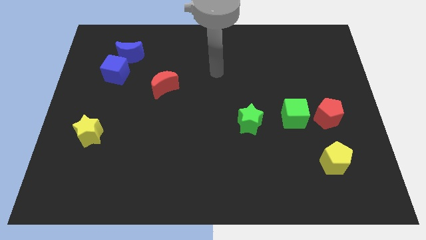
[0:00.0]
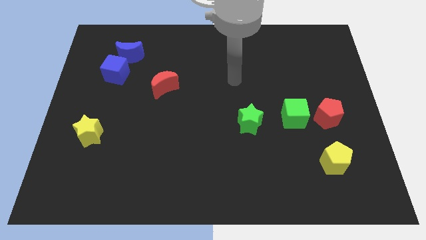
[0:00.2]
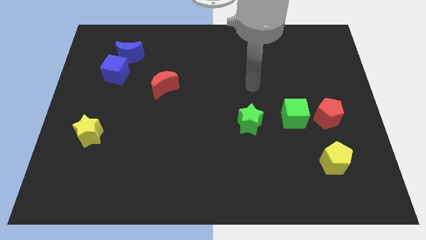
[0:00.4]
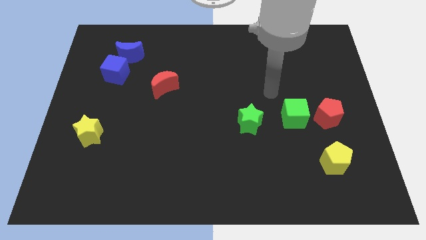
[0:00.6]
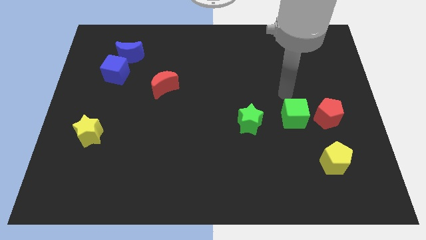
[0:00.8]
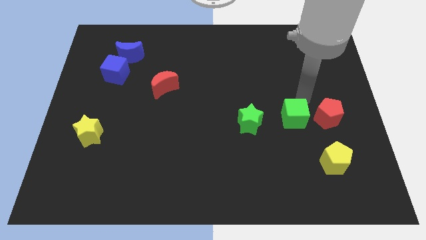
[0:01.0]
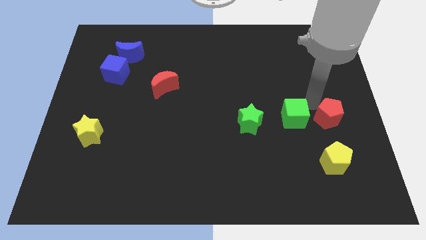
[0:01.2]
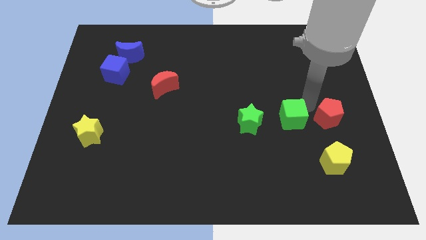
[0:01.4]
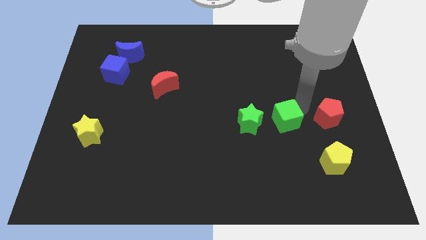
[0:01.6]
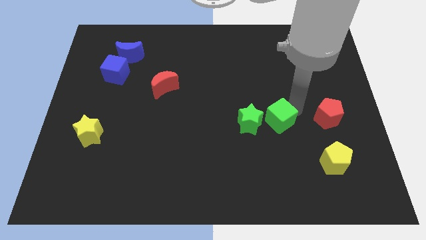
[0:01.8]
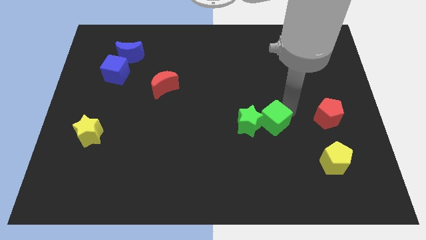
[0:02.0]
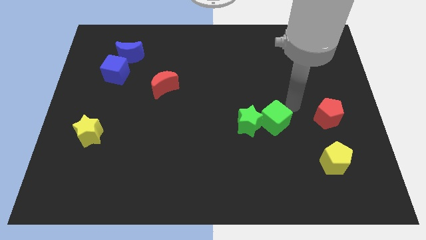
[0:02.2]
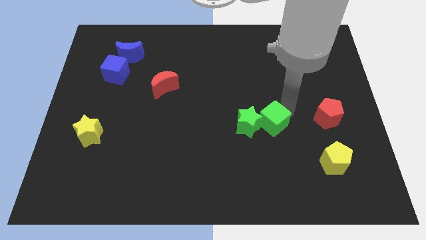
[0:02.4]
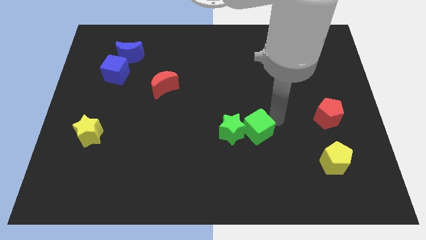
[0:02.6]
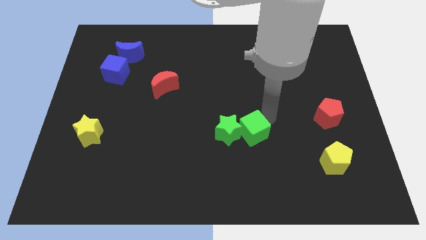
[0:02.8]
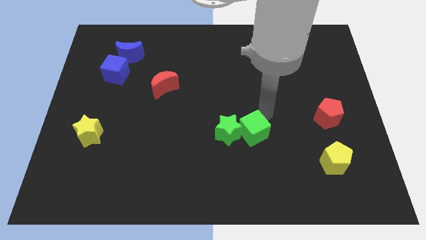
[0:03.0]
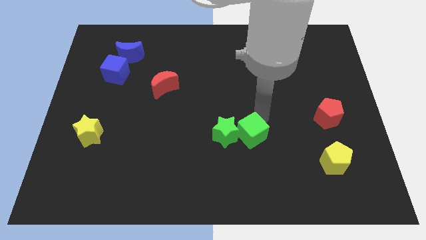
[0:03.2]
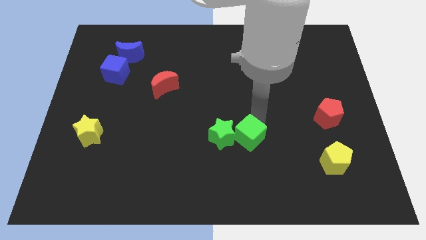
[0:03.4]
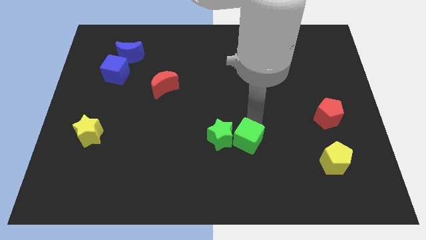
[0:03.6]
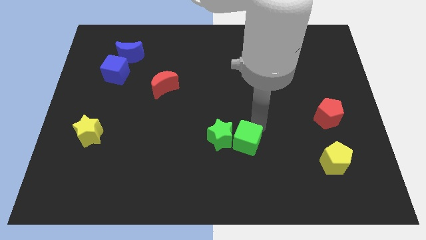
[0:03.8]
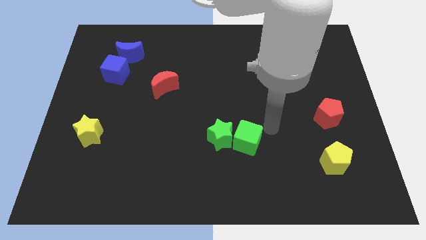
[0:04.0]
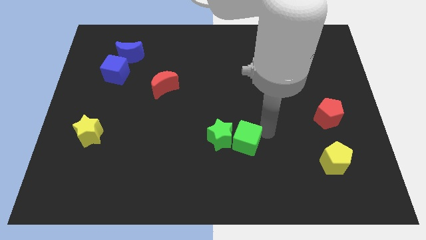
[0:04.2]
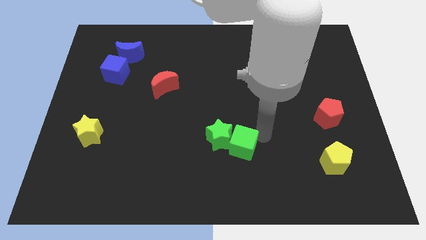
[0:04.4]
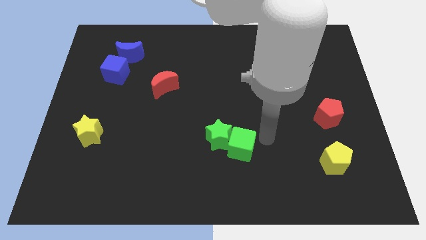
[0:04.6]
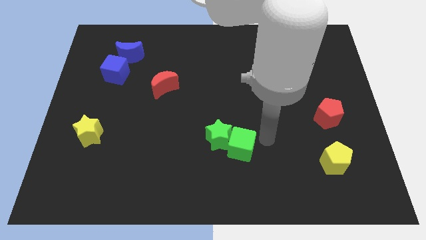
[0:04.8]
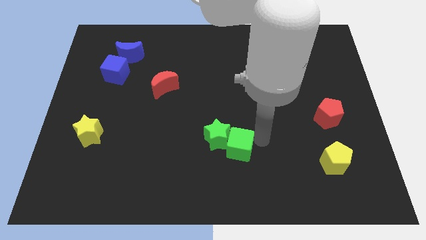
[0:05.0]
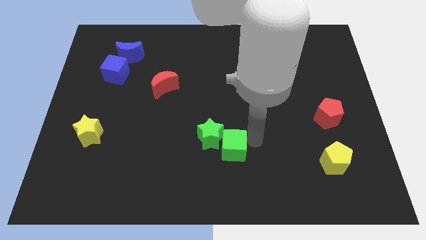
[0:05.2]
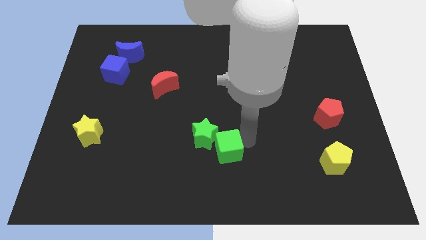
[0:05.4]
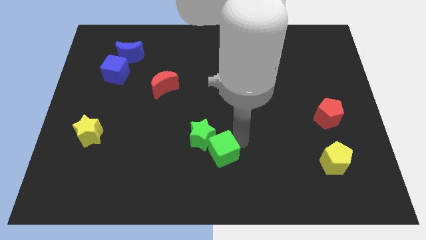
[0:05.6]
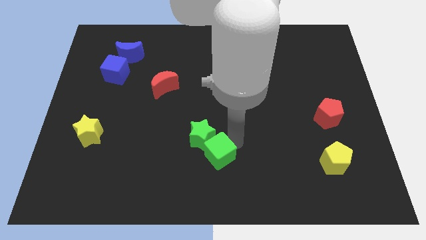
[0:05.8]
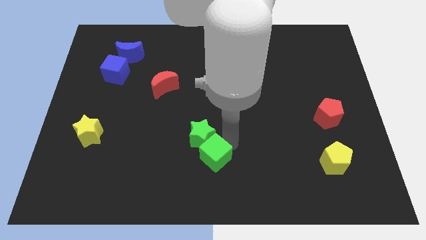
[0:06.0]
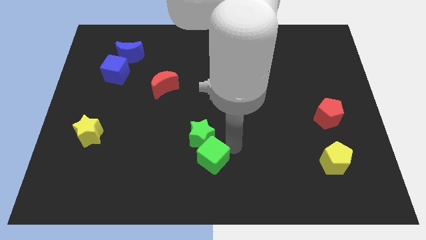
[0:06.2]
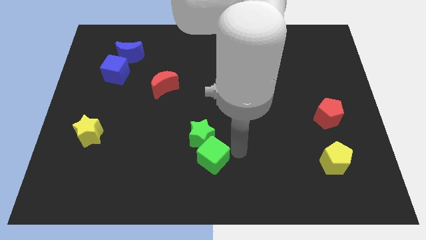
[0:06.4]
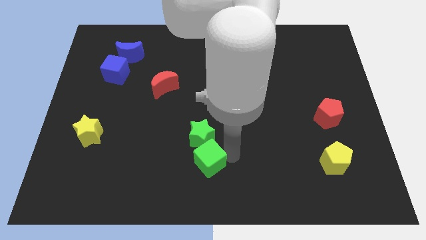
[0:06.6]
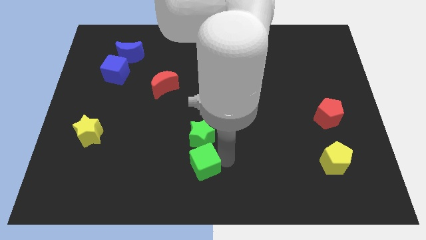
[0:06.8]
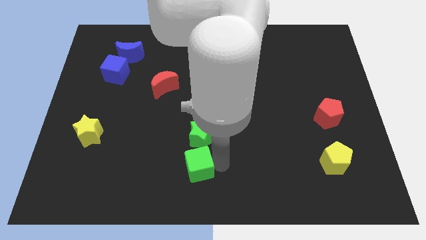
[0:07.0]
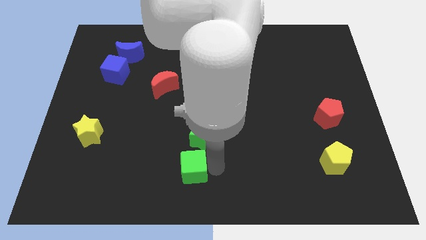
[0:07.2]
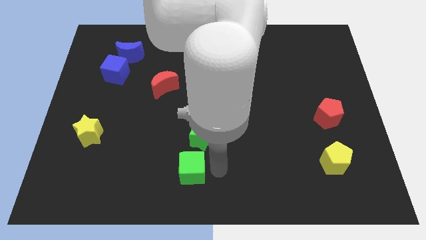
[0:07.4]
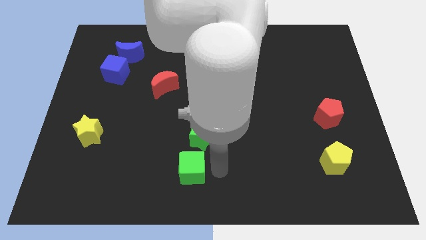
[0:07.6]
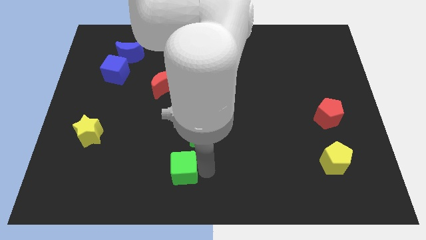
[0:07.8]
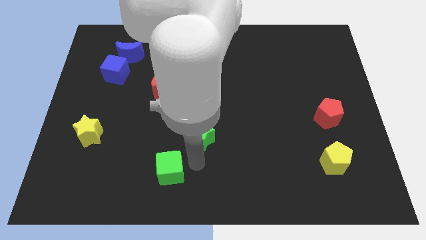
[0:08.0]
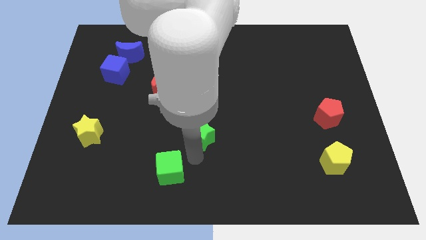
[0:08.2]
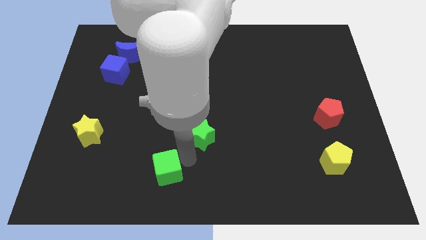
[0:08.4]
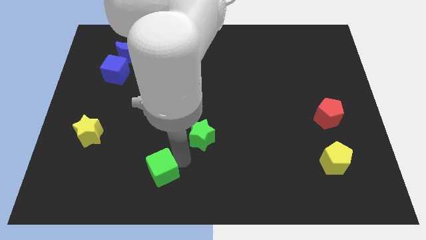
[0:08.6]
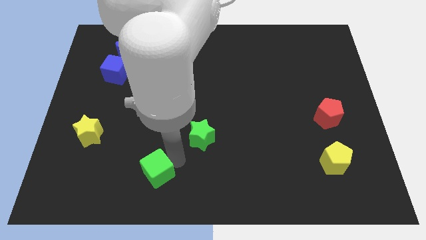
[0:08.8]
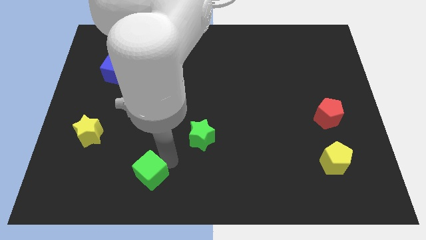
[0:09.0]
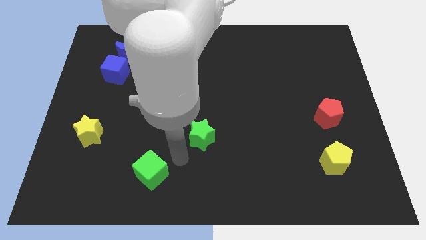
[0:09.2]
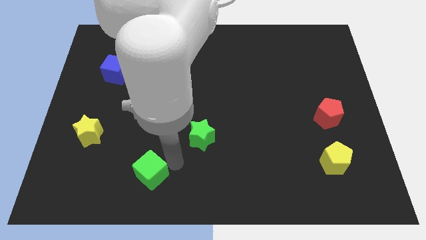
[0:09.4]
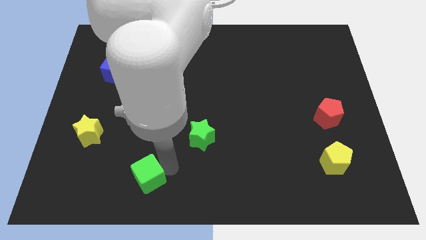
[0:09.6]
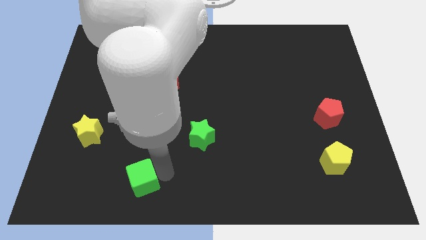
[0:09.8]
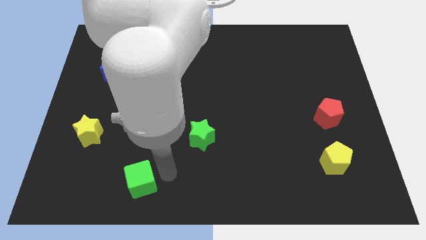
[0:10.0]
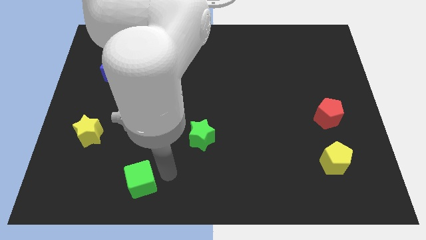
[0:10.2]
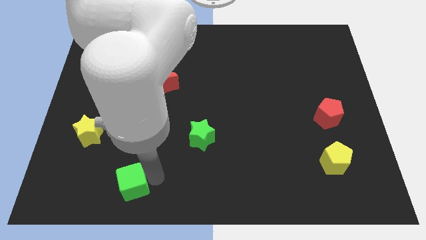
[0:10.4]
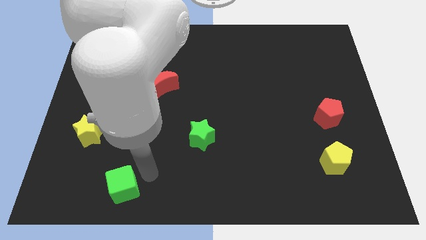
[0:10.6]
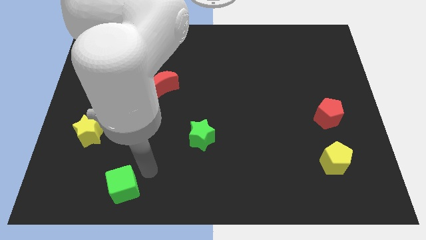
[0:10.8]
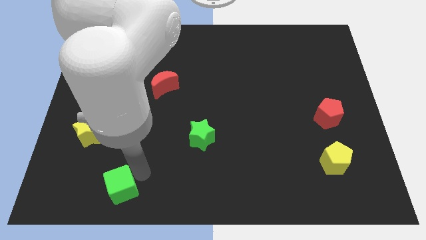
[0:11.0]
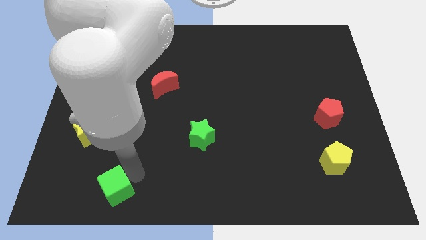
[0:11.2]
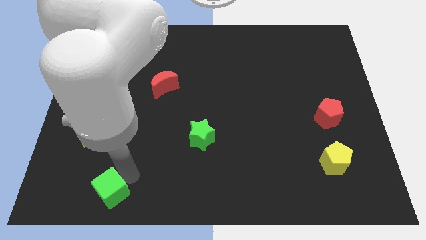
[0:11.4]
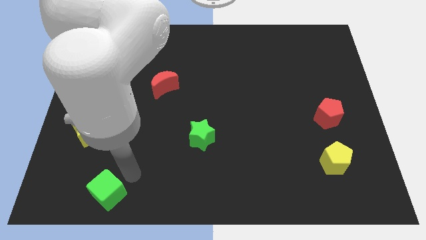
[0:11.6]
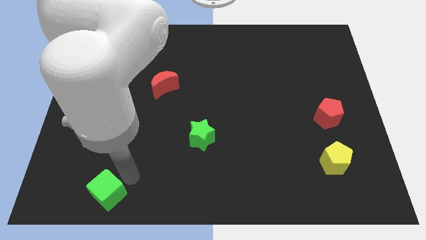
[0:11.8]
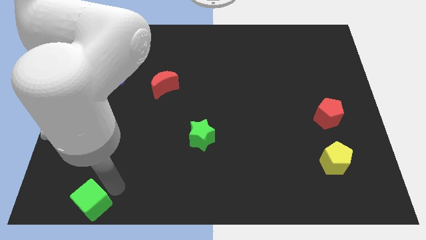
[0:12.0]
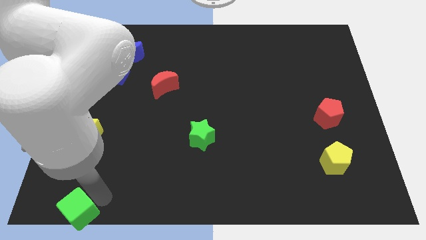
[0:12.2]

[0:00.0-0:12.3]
move the green cube to the lower left corner

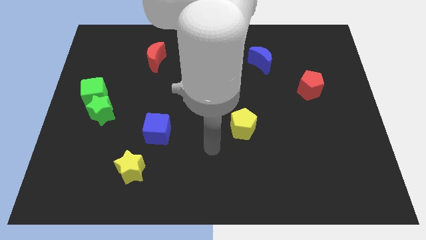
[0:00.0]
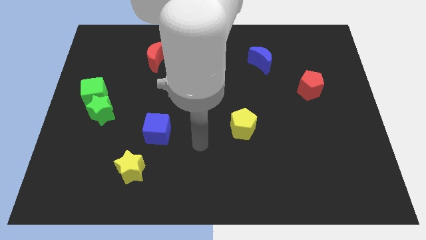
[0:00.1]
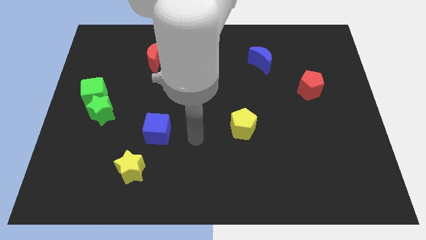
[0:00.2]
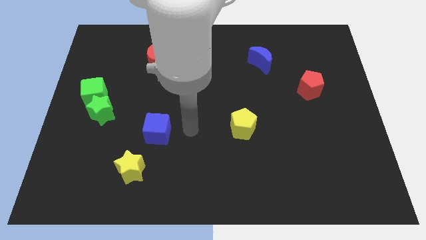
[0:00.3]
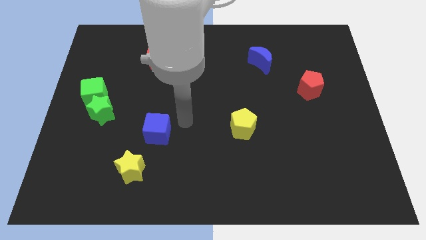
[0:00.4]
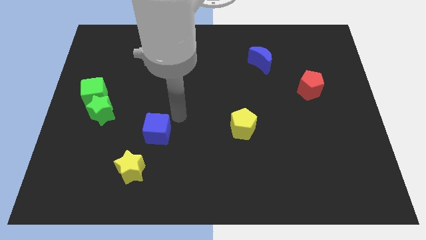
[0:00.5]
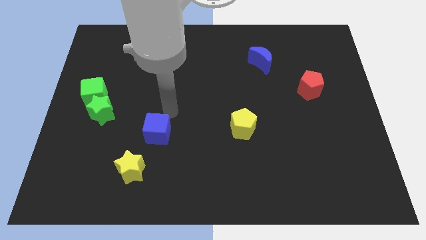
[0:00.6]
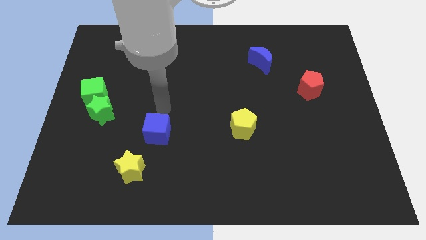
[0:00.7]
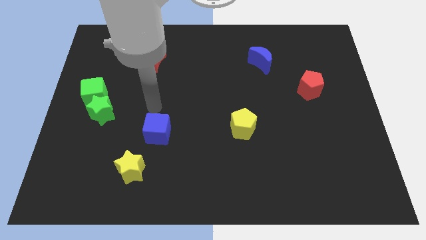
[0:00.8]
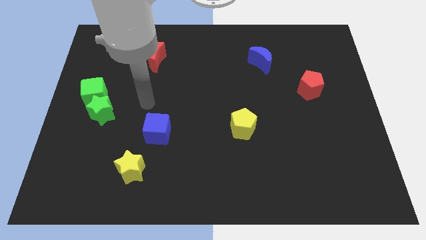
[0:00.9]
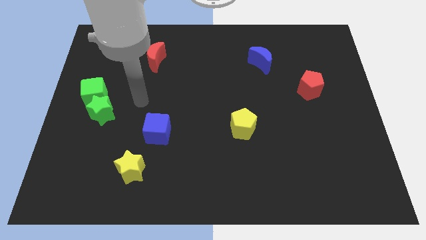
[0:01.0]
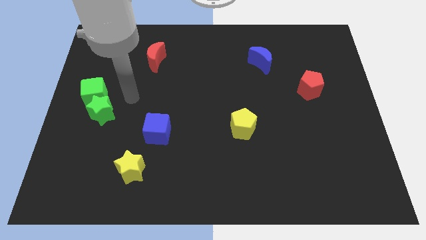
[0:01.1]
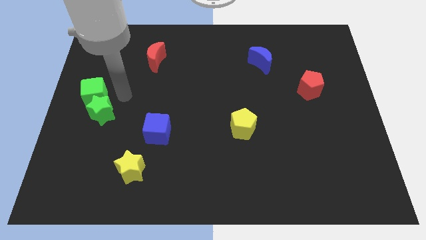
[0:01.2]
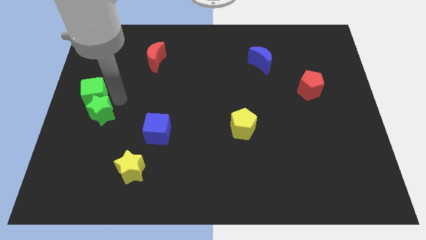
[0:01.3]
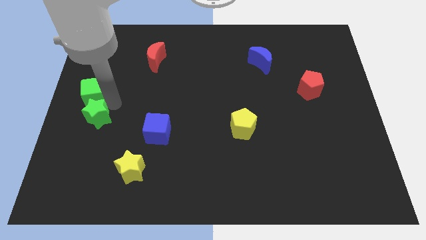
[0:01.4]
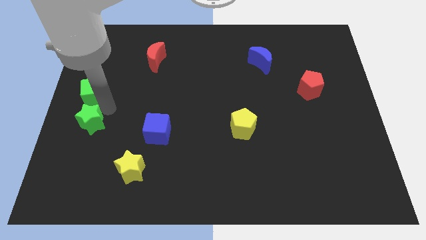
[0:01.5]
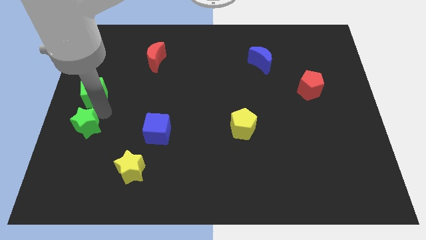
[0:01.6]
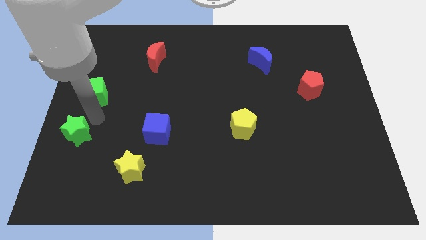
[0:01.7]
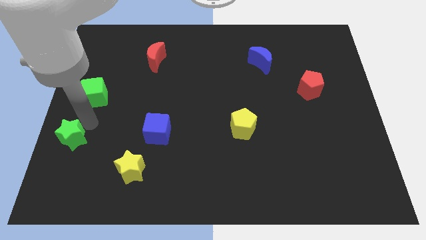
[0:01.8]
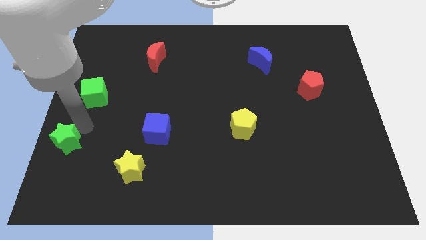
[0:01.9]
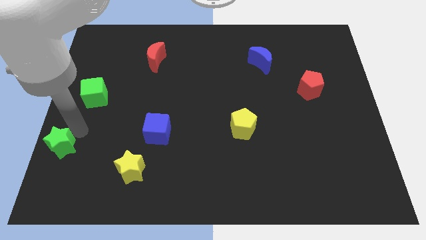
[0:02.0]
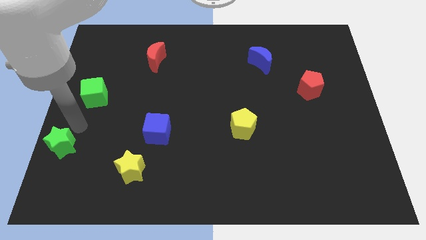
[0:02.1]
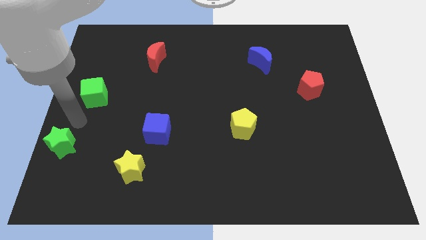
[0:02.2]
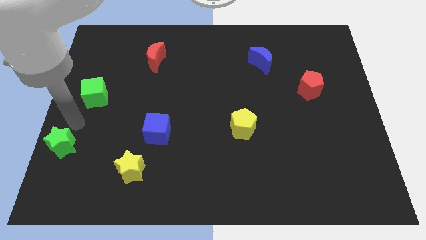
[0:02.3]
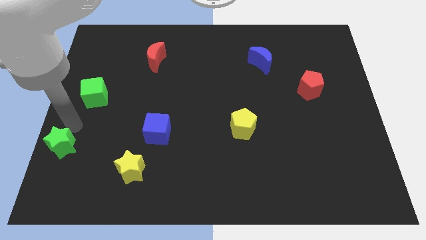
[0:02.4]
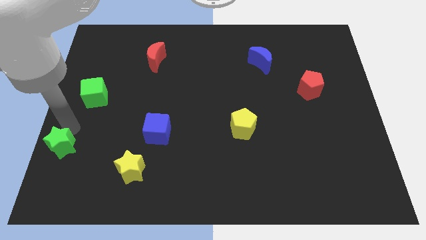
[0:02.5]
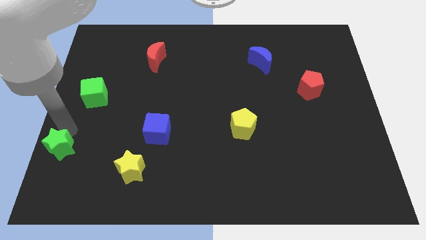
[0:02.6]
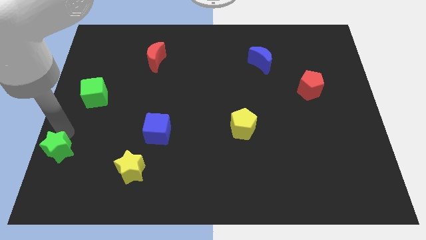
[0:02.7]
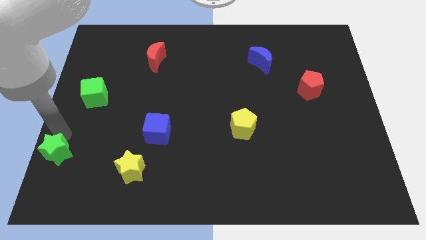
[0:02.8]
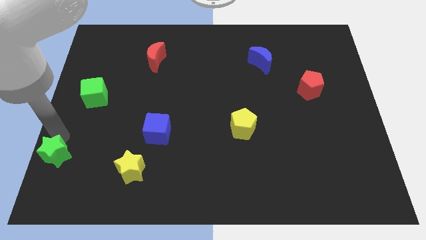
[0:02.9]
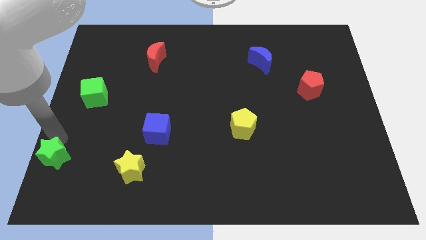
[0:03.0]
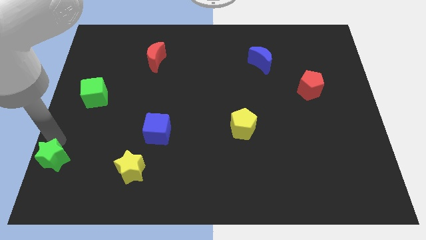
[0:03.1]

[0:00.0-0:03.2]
put the green star to the bottom left corner
